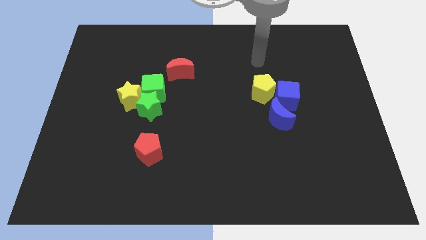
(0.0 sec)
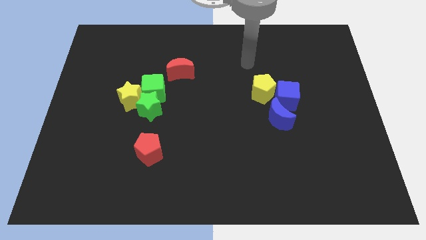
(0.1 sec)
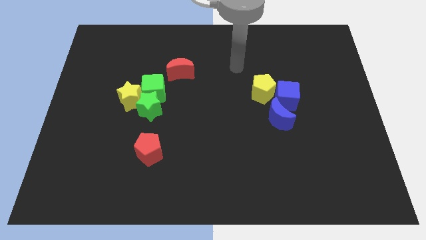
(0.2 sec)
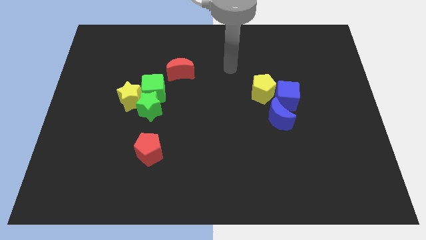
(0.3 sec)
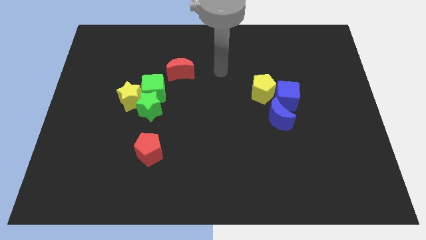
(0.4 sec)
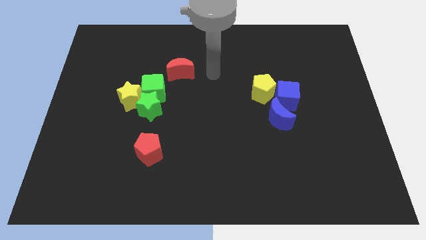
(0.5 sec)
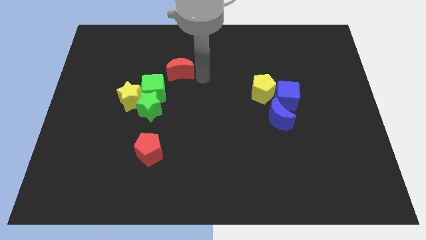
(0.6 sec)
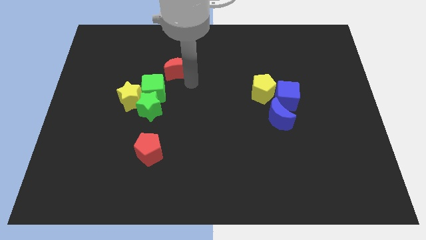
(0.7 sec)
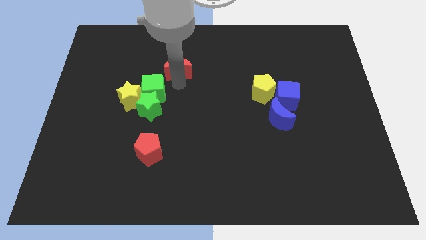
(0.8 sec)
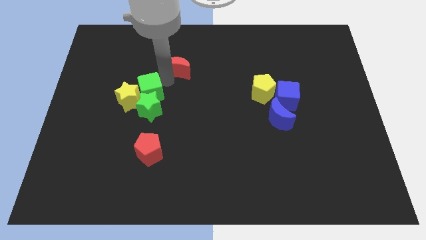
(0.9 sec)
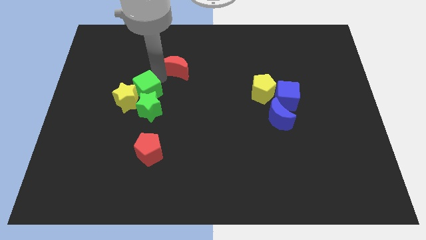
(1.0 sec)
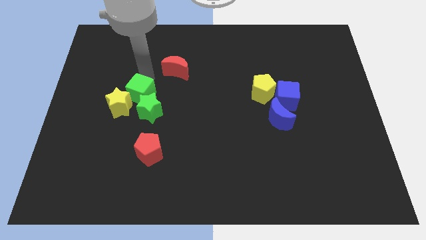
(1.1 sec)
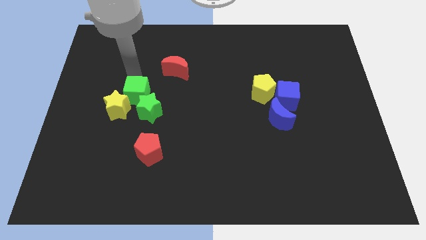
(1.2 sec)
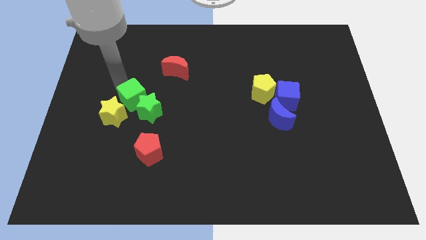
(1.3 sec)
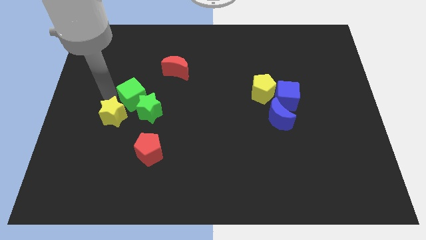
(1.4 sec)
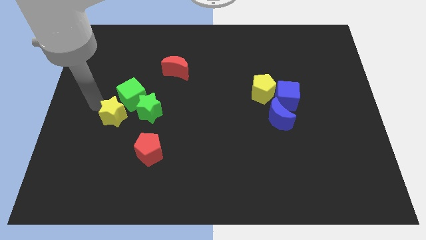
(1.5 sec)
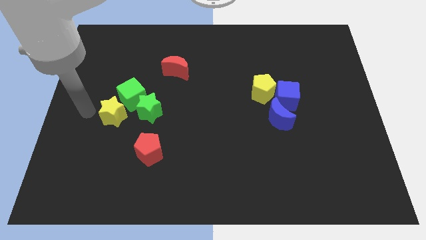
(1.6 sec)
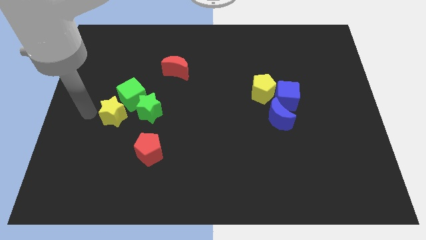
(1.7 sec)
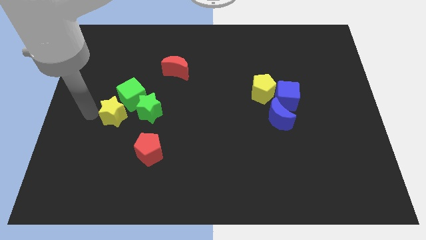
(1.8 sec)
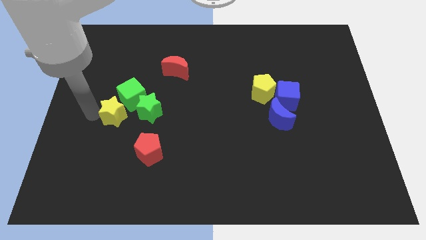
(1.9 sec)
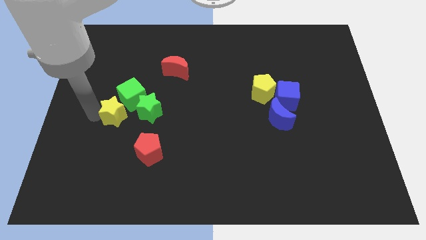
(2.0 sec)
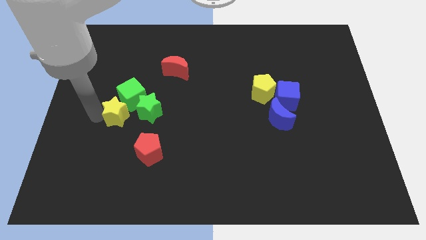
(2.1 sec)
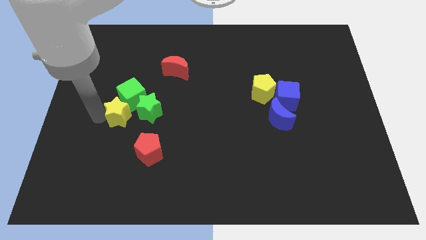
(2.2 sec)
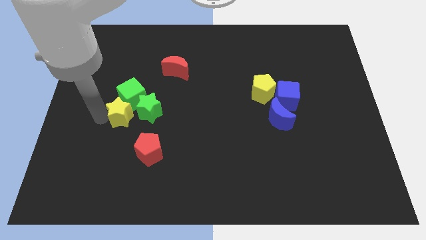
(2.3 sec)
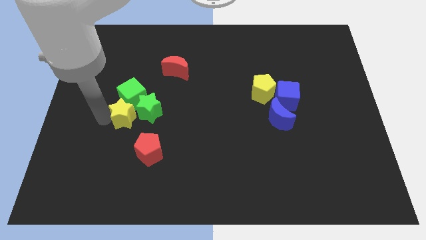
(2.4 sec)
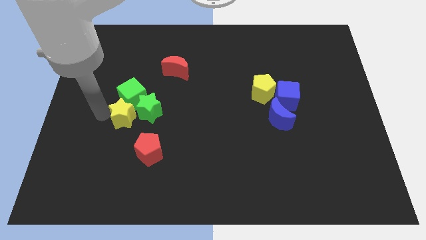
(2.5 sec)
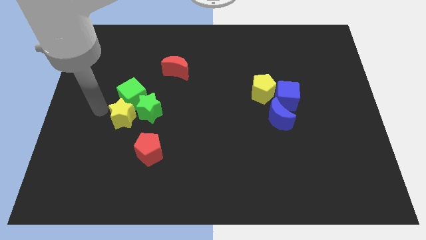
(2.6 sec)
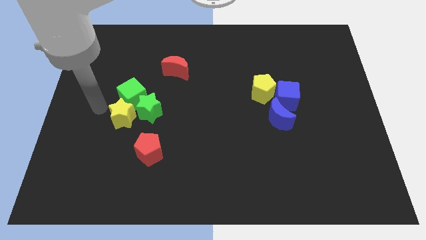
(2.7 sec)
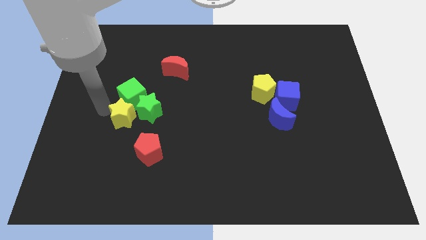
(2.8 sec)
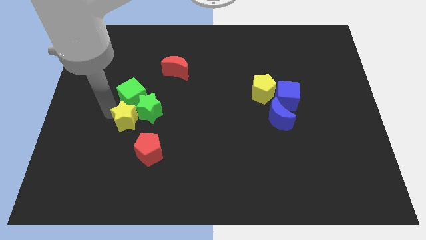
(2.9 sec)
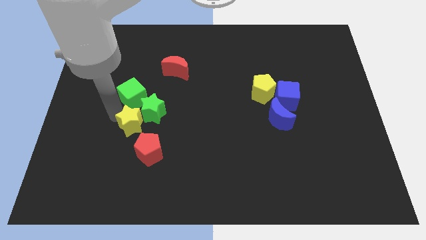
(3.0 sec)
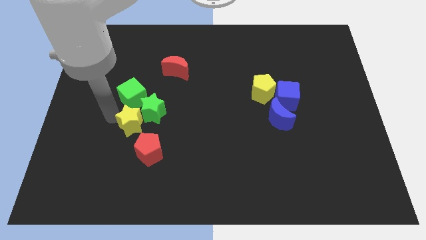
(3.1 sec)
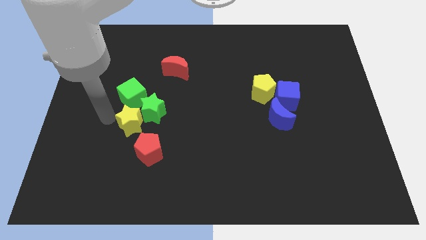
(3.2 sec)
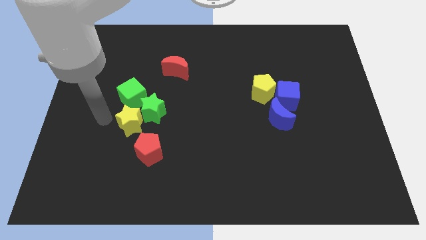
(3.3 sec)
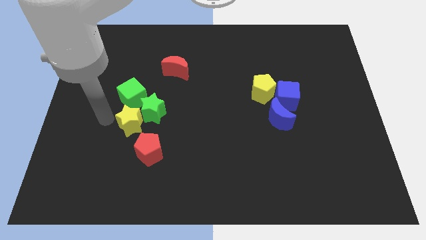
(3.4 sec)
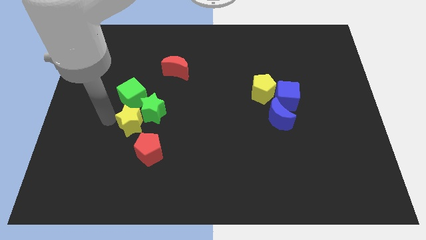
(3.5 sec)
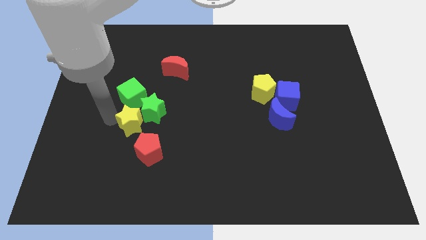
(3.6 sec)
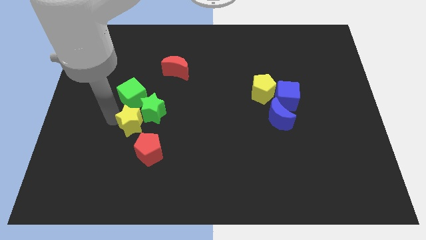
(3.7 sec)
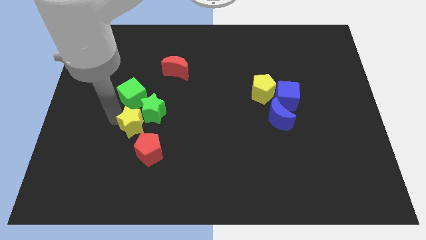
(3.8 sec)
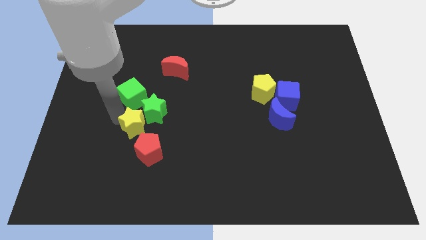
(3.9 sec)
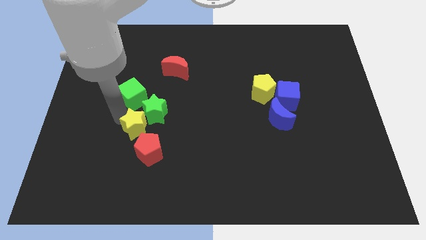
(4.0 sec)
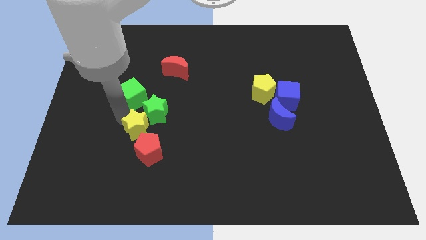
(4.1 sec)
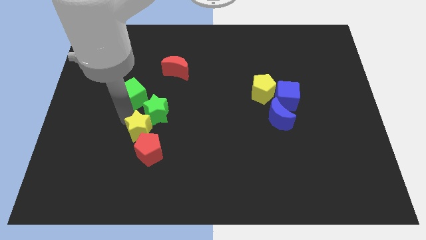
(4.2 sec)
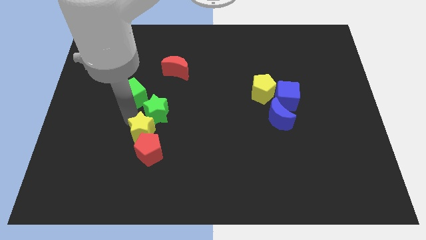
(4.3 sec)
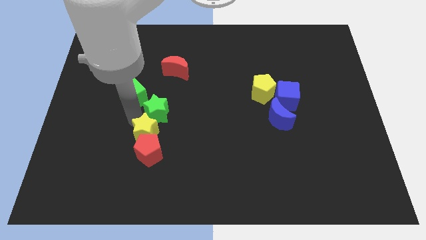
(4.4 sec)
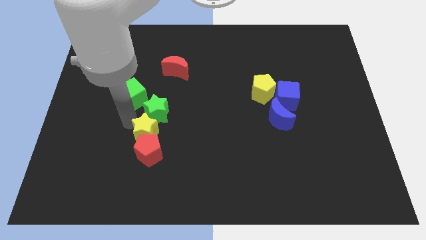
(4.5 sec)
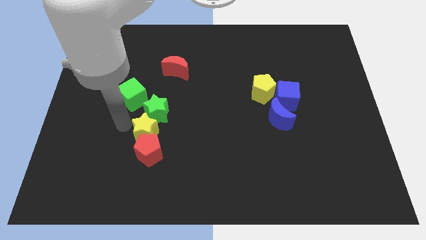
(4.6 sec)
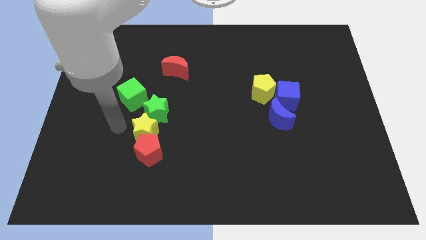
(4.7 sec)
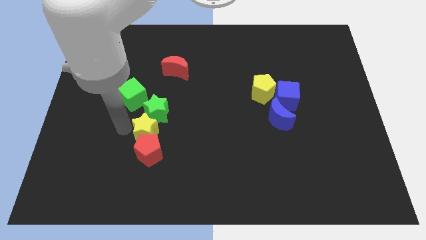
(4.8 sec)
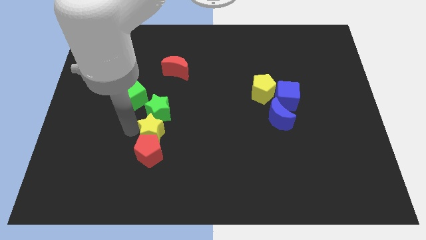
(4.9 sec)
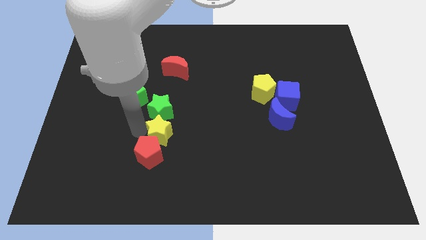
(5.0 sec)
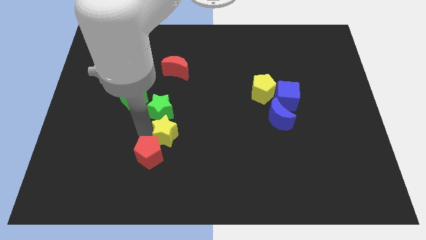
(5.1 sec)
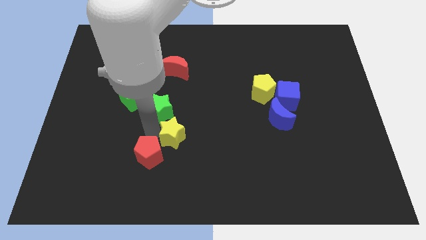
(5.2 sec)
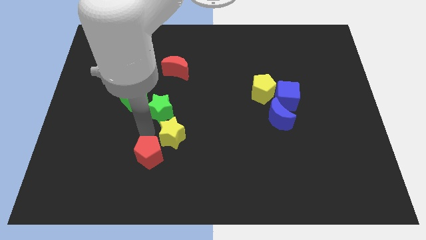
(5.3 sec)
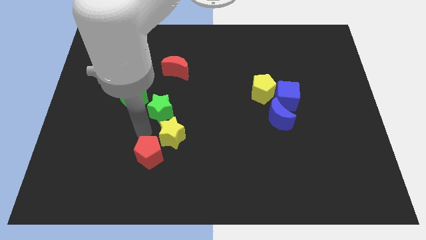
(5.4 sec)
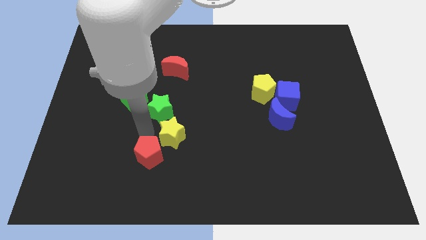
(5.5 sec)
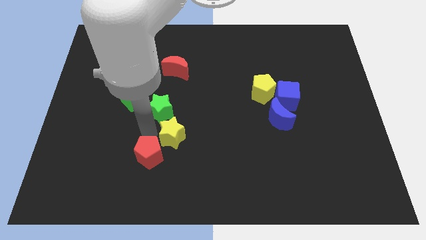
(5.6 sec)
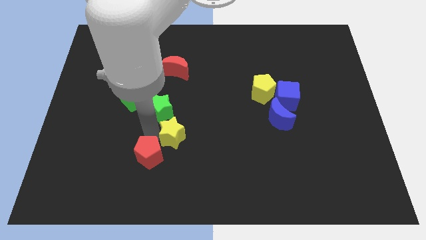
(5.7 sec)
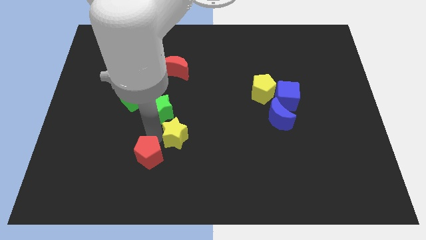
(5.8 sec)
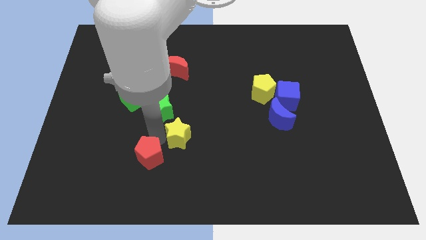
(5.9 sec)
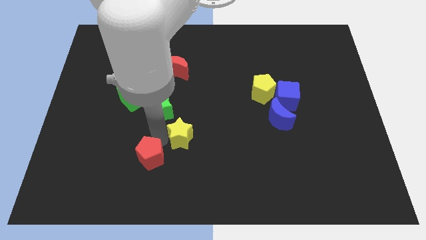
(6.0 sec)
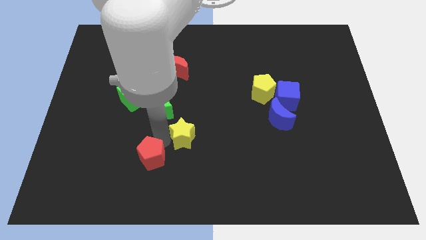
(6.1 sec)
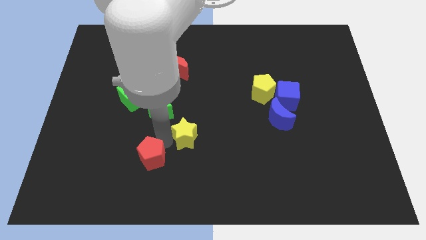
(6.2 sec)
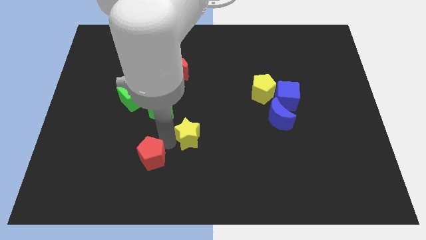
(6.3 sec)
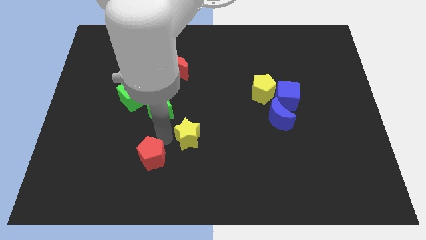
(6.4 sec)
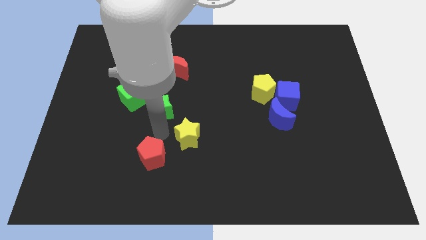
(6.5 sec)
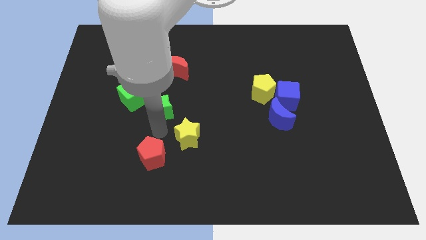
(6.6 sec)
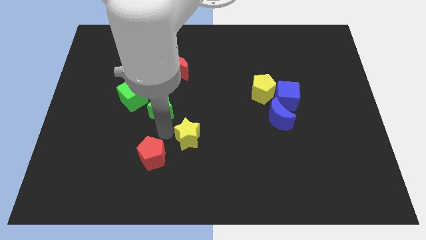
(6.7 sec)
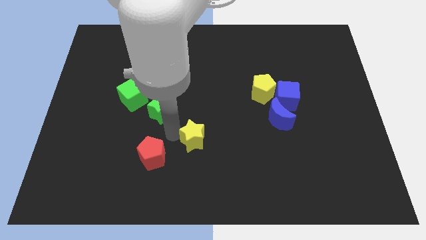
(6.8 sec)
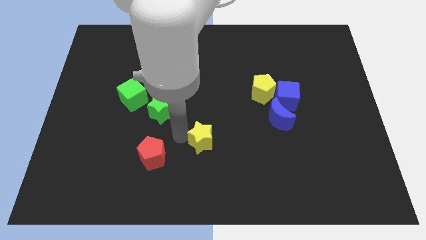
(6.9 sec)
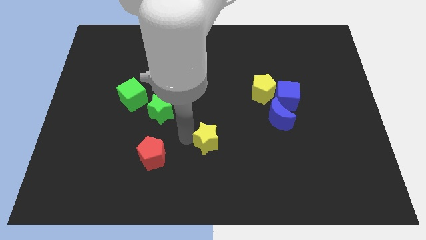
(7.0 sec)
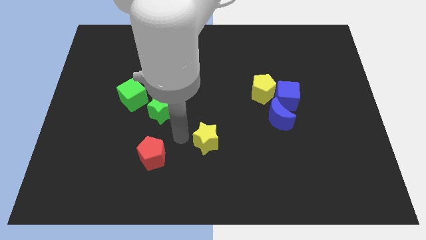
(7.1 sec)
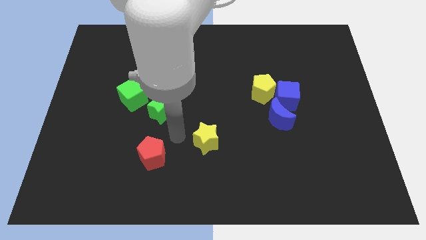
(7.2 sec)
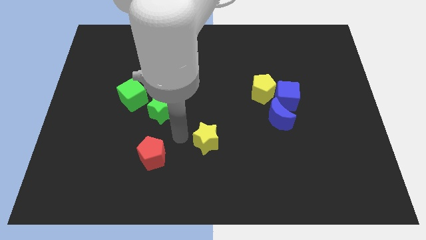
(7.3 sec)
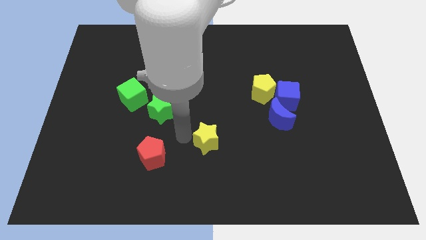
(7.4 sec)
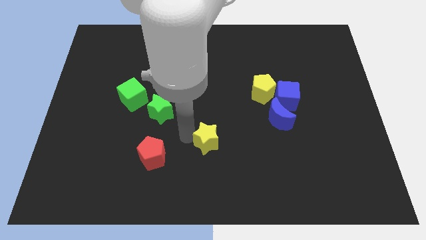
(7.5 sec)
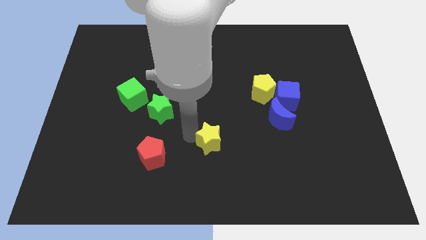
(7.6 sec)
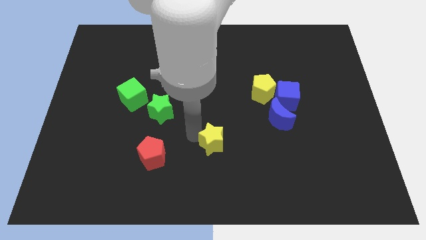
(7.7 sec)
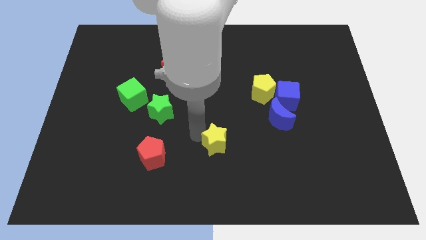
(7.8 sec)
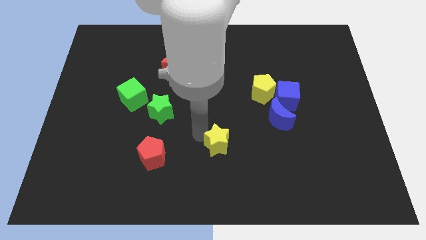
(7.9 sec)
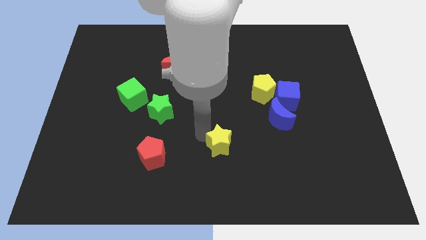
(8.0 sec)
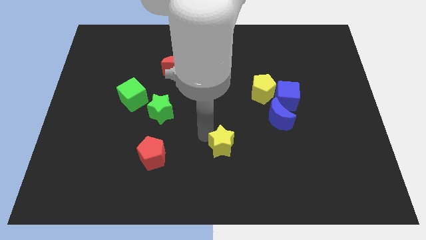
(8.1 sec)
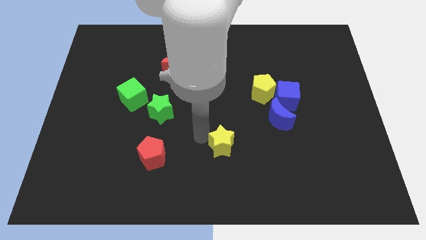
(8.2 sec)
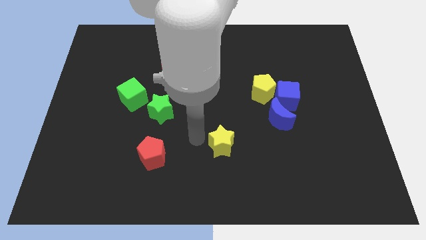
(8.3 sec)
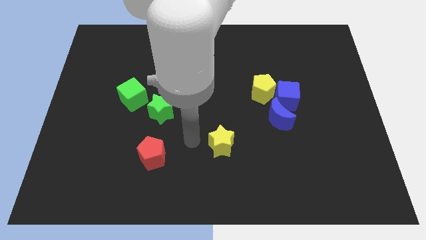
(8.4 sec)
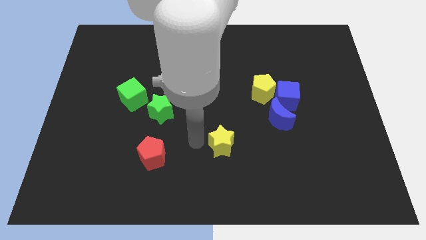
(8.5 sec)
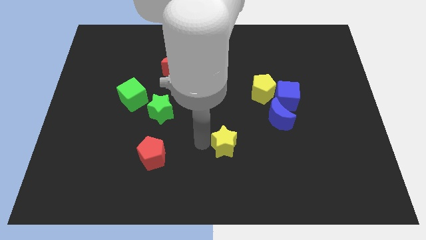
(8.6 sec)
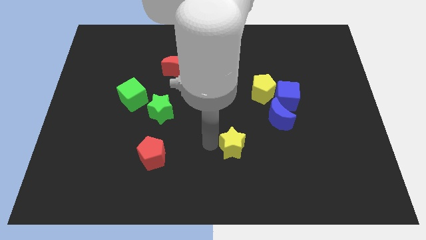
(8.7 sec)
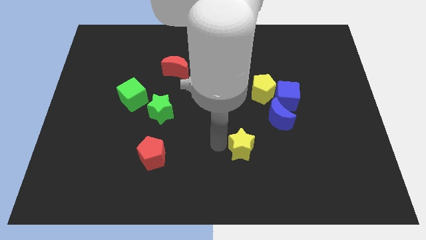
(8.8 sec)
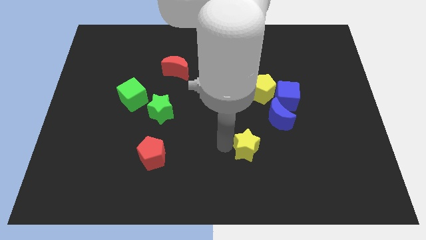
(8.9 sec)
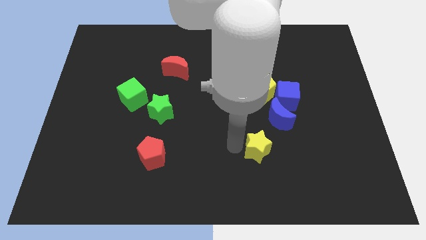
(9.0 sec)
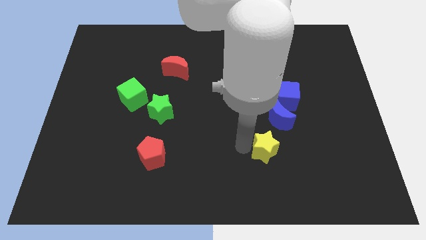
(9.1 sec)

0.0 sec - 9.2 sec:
push the yellow star below the blue moon
